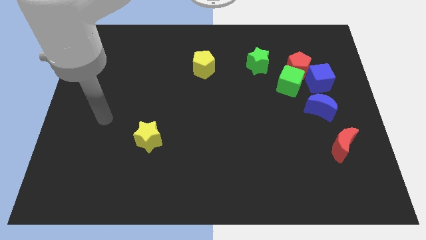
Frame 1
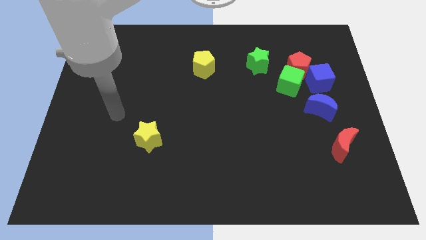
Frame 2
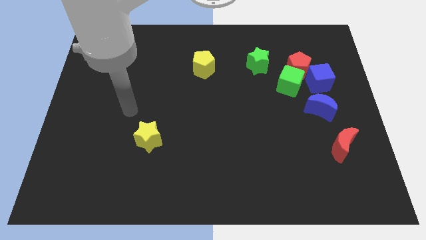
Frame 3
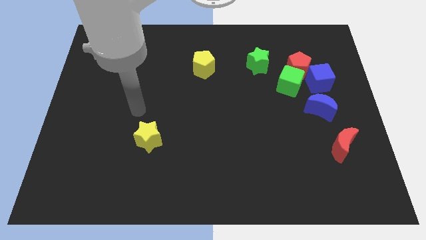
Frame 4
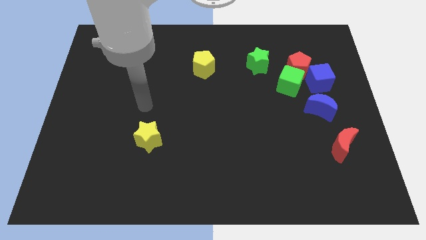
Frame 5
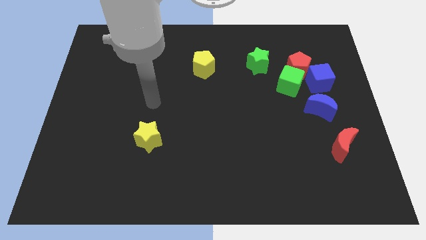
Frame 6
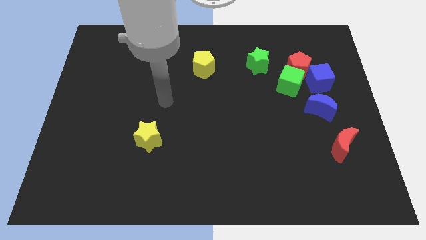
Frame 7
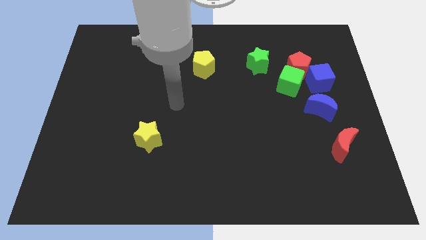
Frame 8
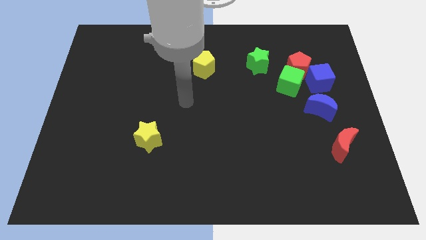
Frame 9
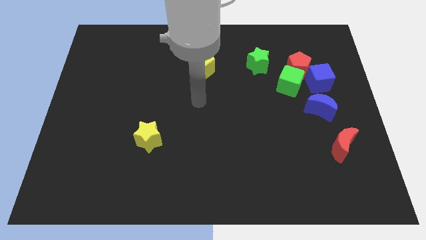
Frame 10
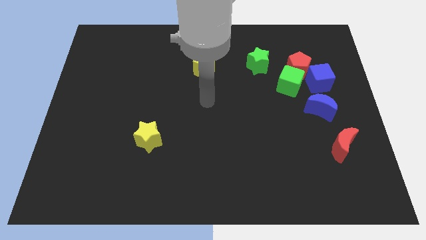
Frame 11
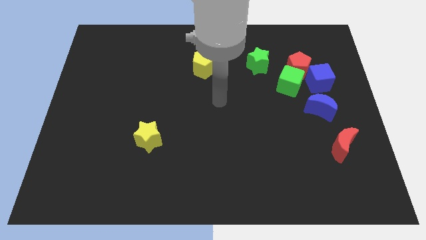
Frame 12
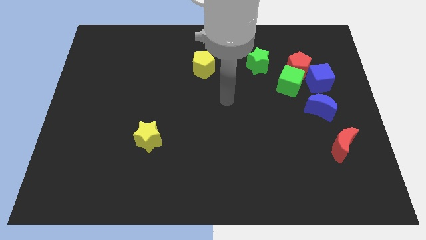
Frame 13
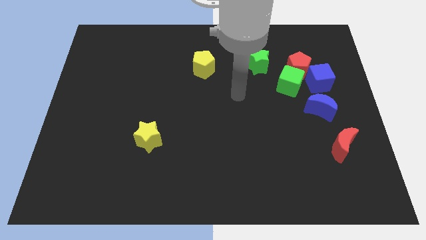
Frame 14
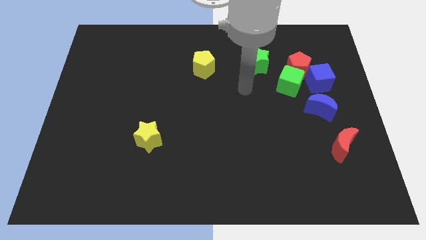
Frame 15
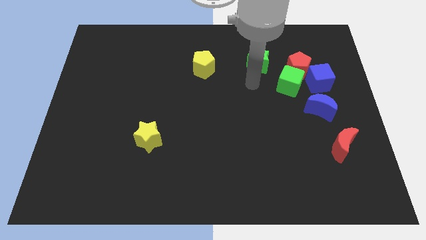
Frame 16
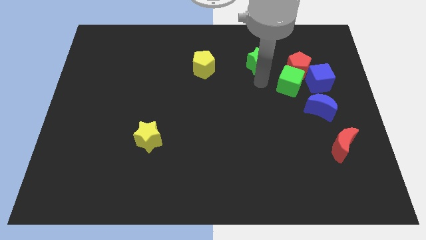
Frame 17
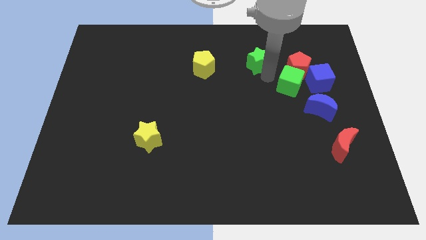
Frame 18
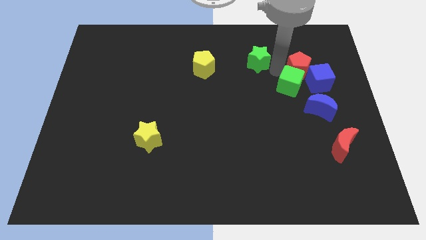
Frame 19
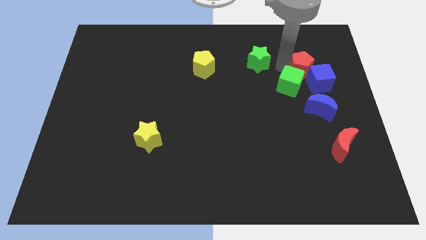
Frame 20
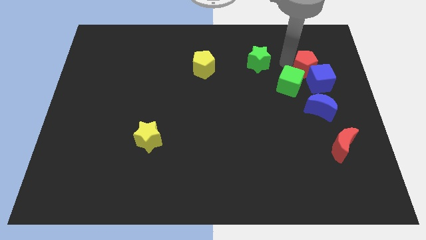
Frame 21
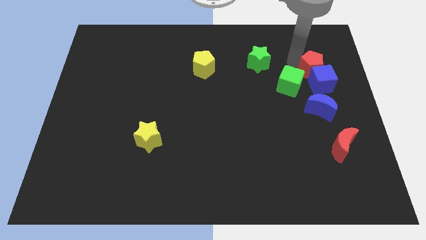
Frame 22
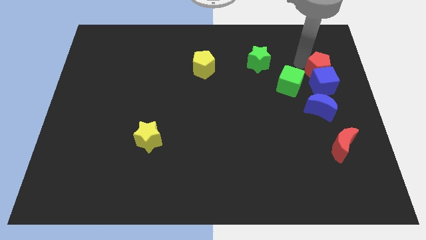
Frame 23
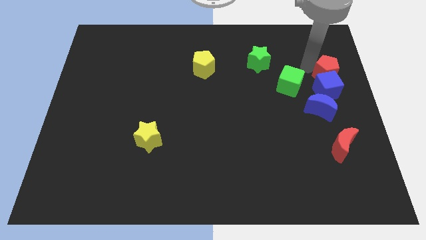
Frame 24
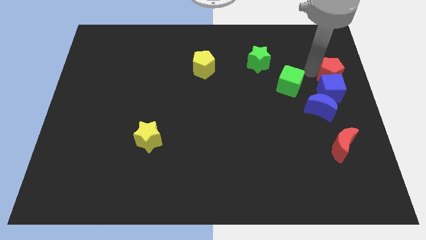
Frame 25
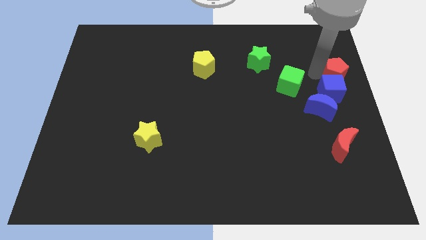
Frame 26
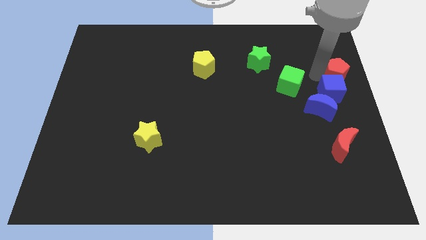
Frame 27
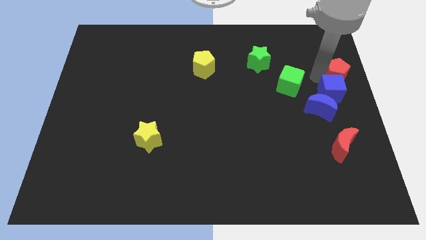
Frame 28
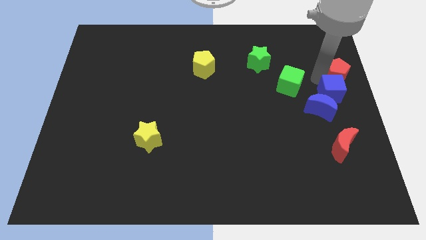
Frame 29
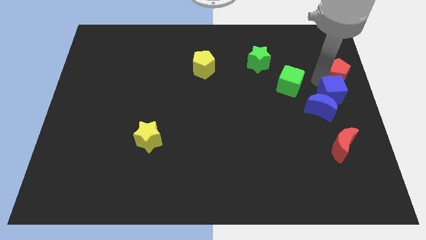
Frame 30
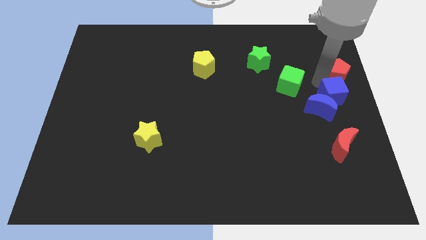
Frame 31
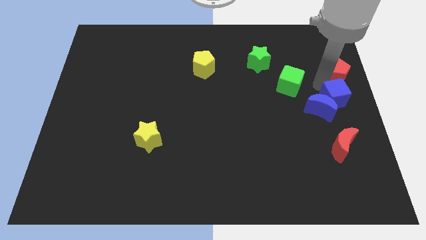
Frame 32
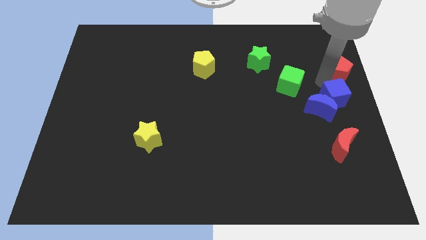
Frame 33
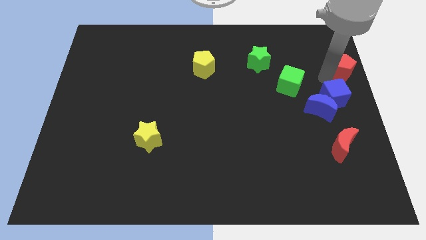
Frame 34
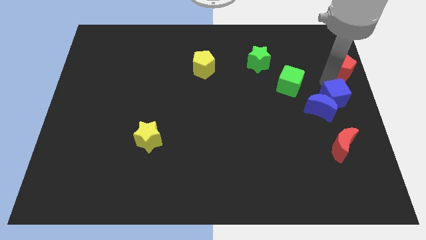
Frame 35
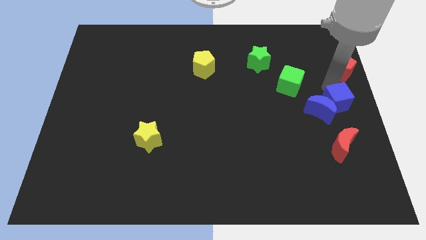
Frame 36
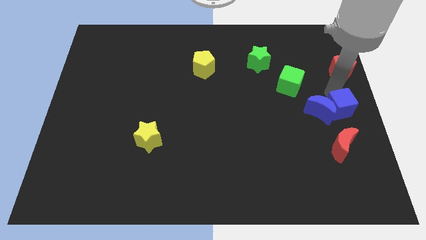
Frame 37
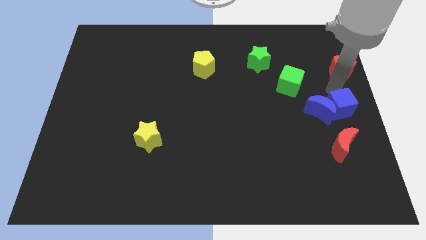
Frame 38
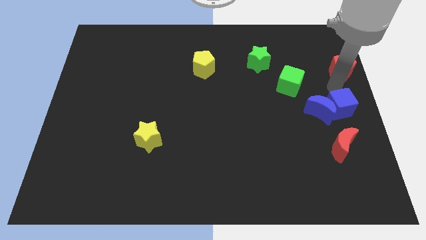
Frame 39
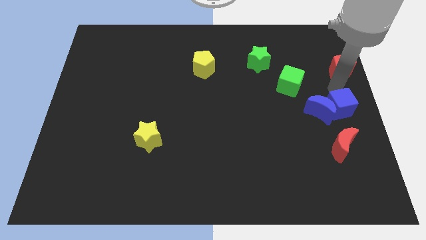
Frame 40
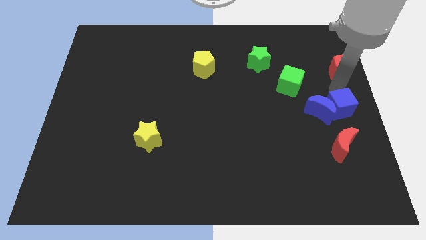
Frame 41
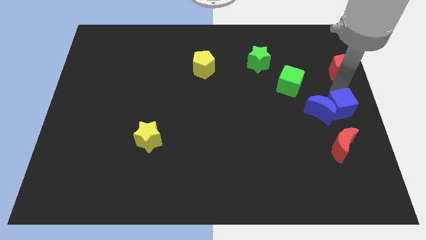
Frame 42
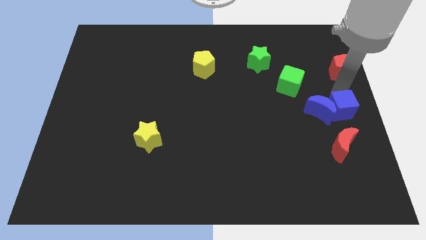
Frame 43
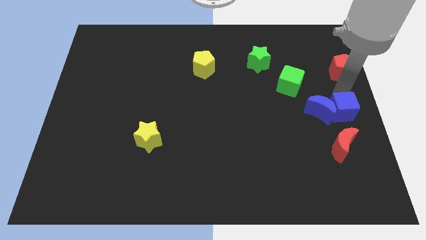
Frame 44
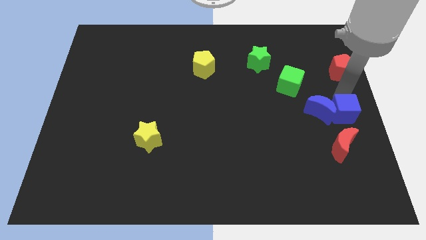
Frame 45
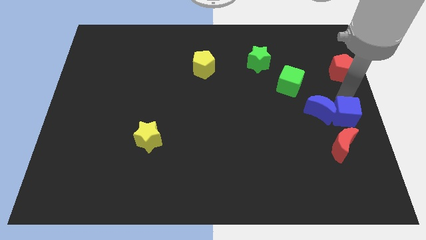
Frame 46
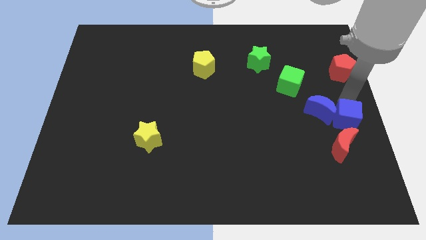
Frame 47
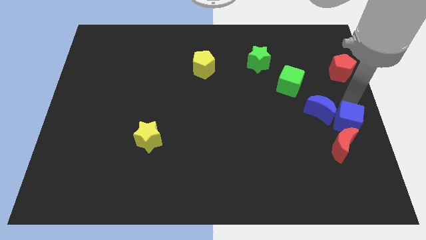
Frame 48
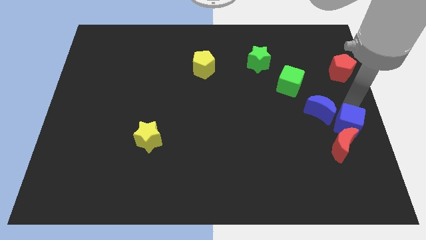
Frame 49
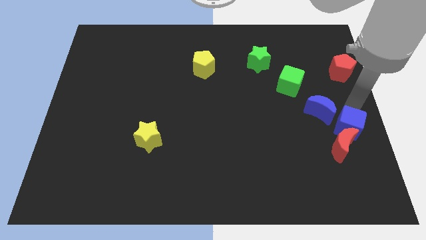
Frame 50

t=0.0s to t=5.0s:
push the blue cube to the red moon

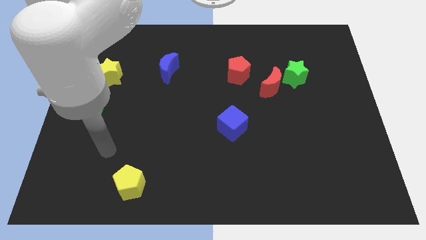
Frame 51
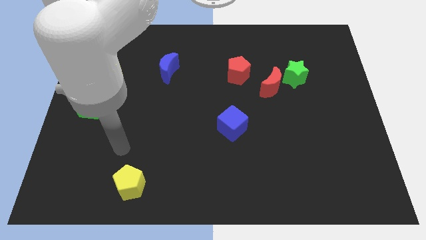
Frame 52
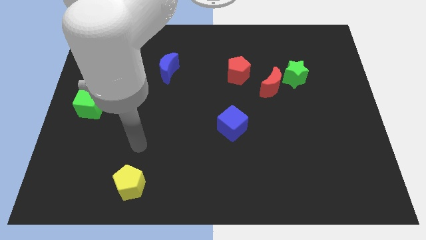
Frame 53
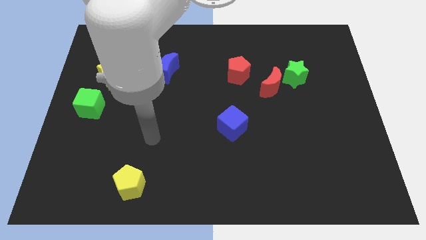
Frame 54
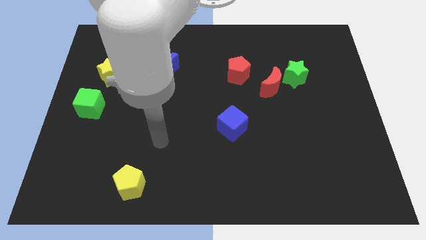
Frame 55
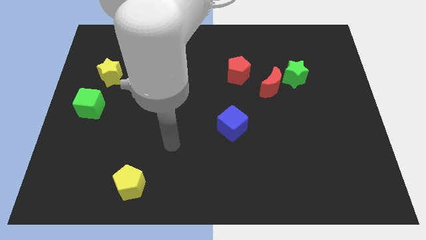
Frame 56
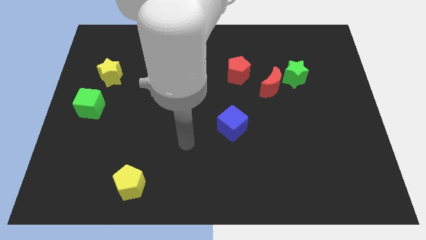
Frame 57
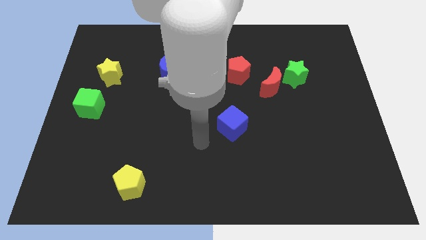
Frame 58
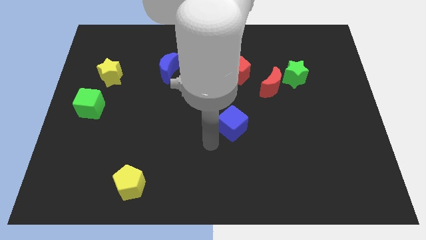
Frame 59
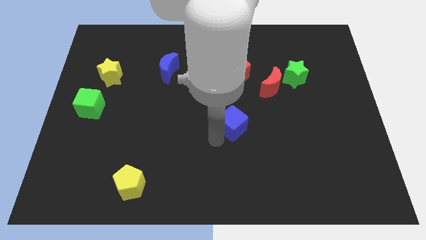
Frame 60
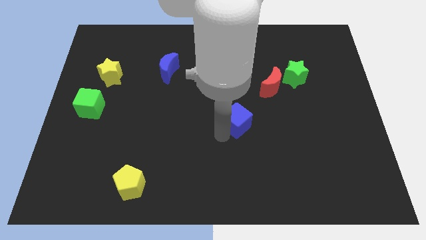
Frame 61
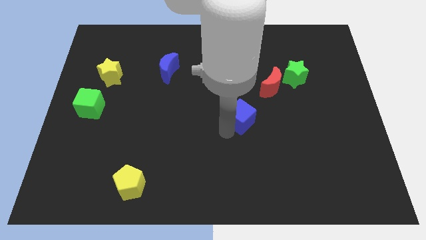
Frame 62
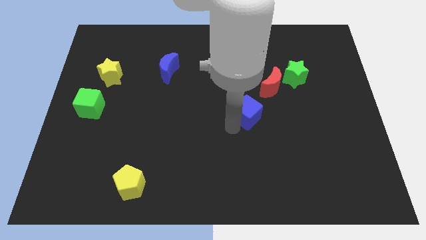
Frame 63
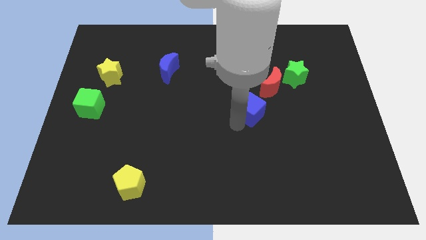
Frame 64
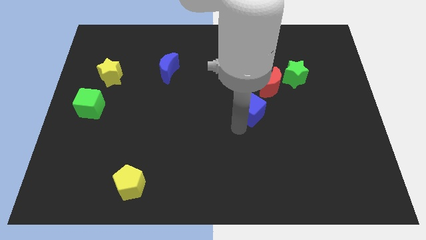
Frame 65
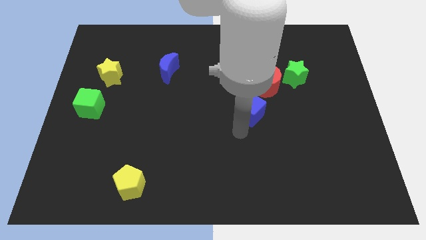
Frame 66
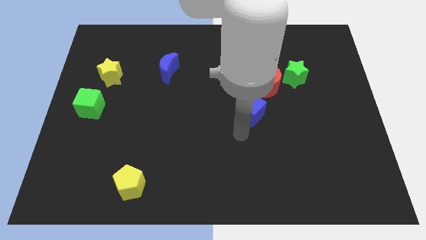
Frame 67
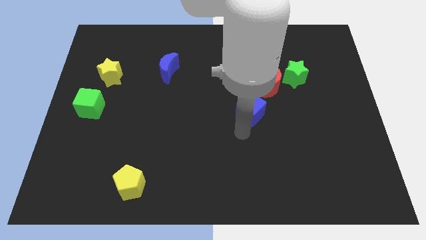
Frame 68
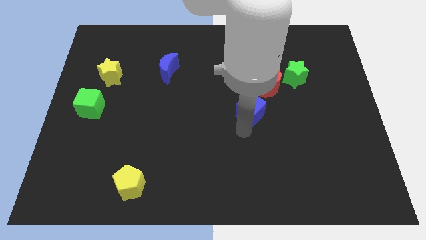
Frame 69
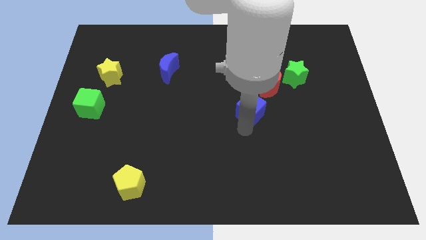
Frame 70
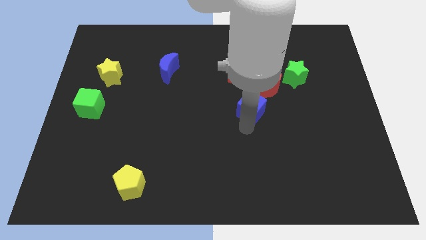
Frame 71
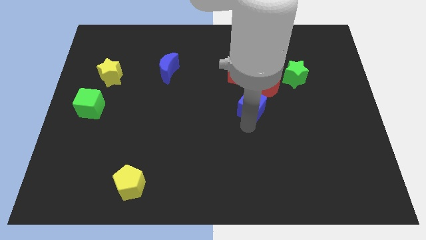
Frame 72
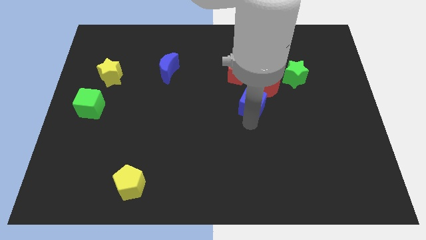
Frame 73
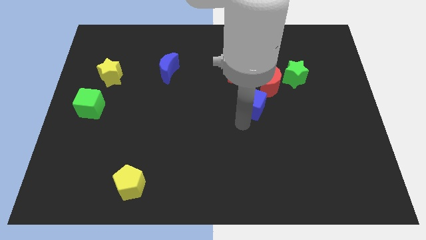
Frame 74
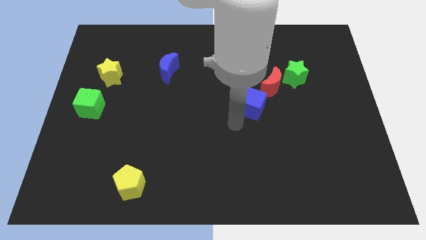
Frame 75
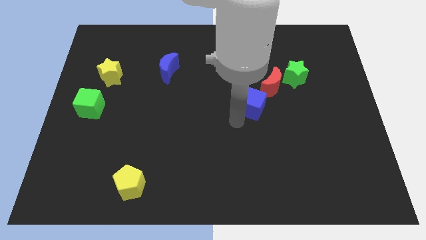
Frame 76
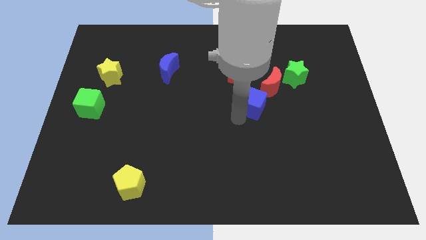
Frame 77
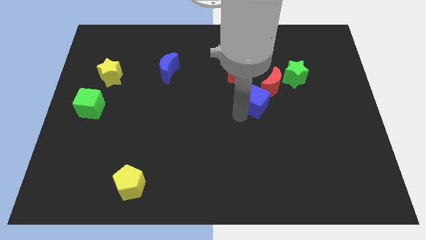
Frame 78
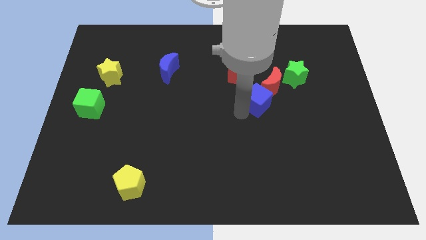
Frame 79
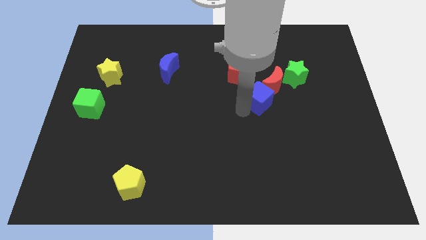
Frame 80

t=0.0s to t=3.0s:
move the blue cube close to the red moon
